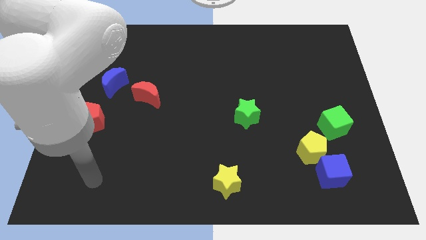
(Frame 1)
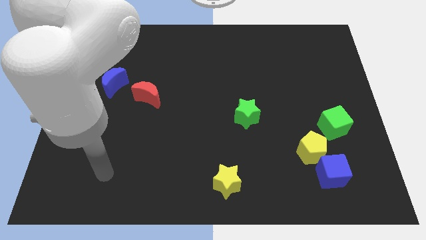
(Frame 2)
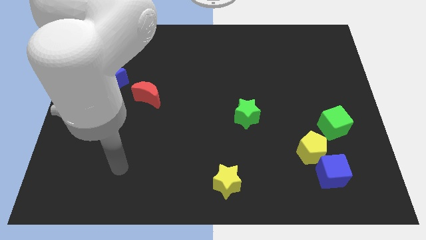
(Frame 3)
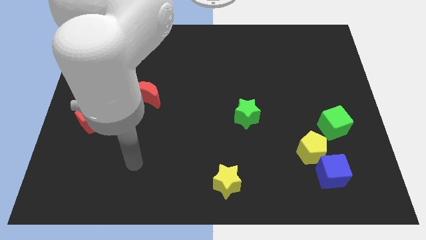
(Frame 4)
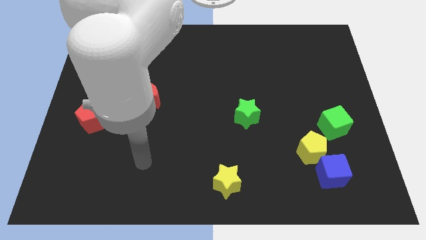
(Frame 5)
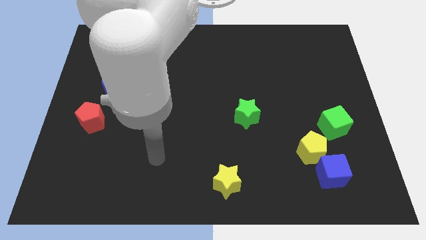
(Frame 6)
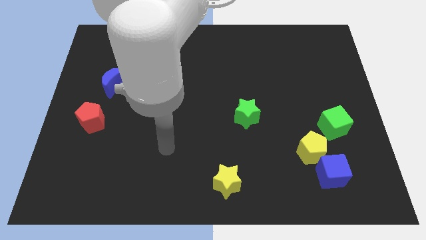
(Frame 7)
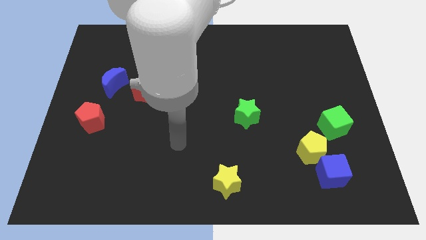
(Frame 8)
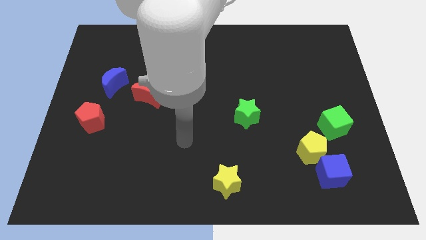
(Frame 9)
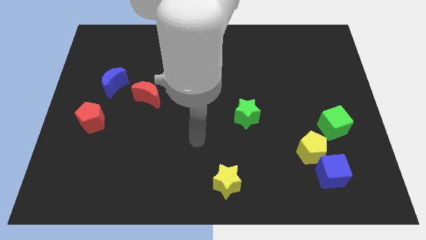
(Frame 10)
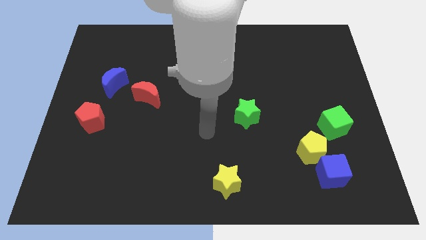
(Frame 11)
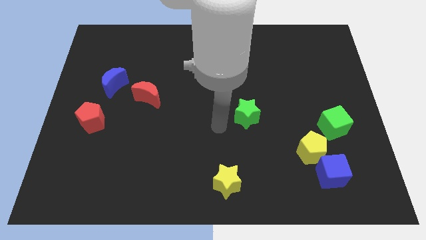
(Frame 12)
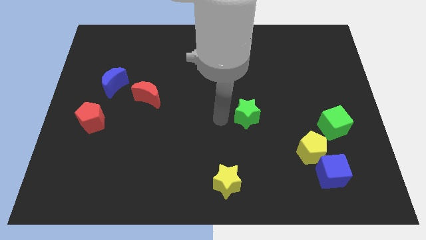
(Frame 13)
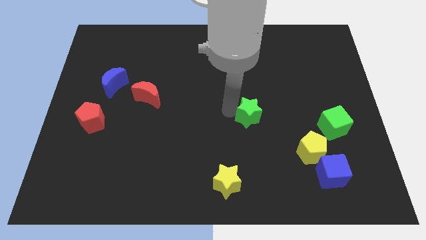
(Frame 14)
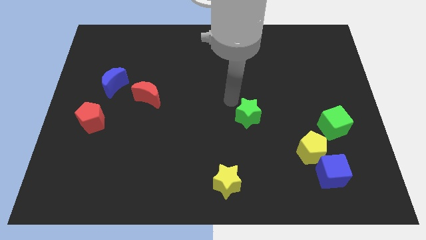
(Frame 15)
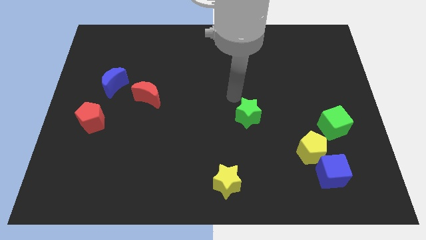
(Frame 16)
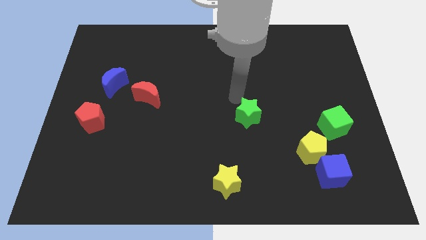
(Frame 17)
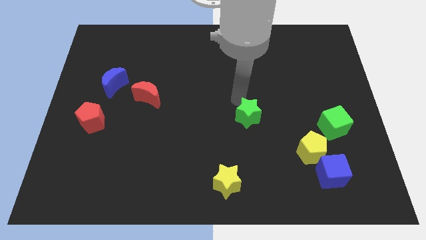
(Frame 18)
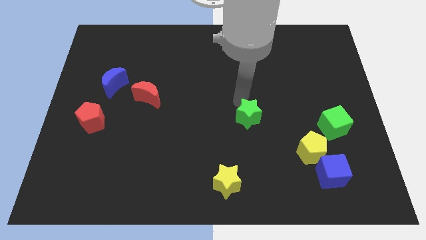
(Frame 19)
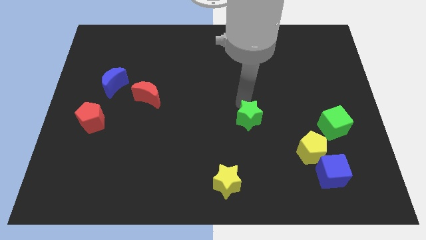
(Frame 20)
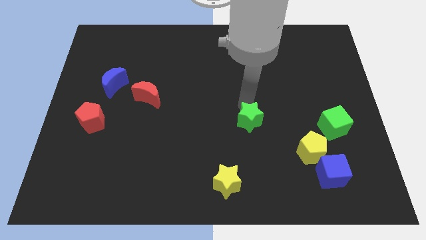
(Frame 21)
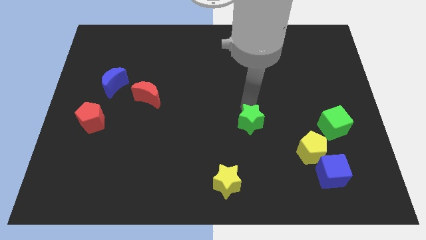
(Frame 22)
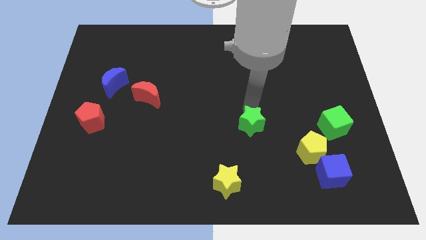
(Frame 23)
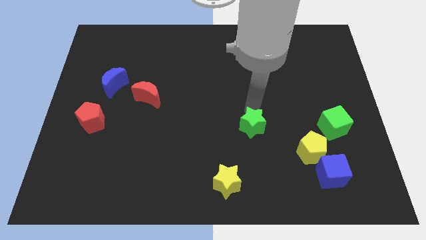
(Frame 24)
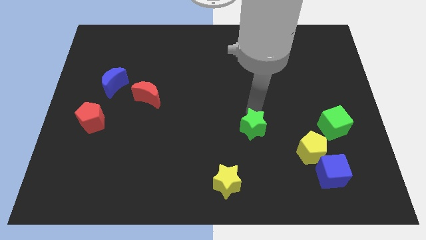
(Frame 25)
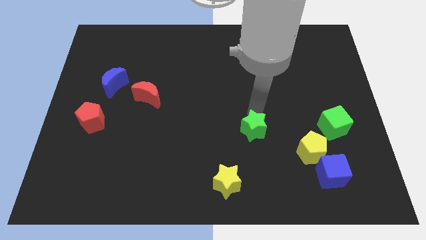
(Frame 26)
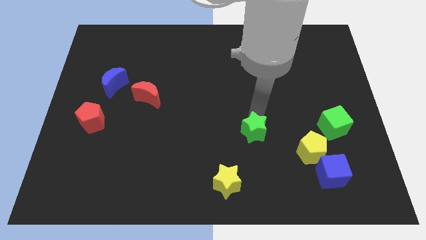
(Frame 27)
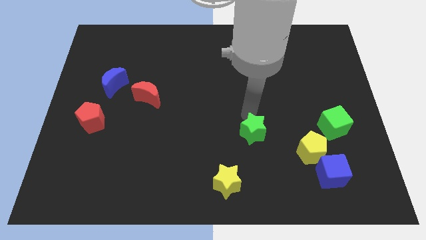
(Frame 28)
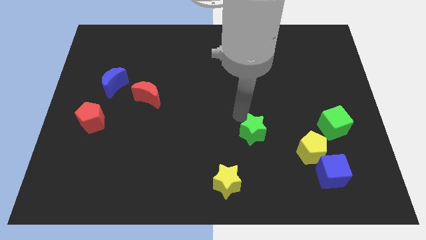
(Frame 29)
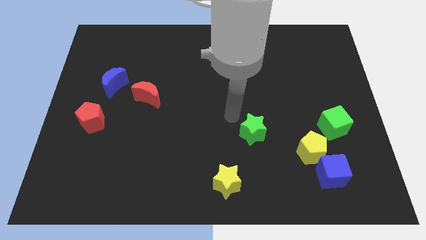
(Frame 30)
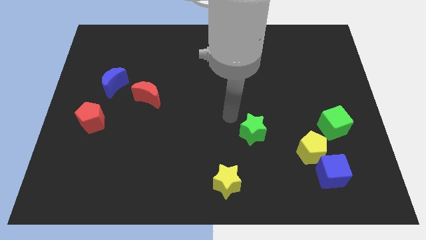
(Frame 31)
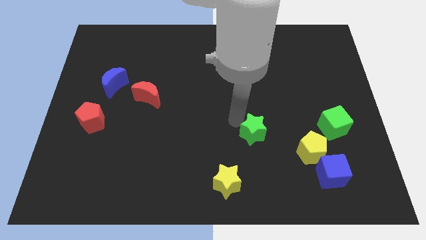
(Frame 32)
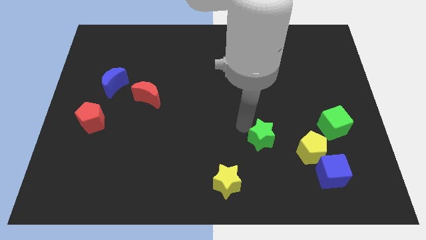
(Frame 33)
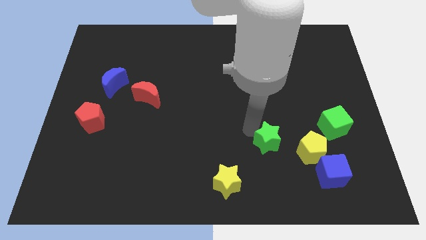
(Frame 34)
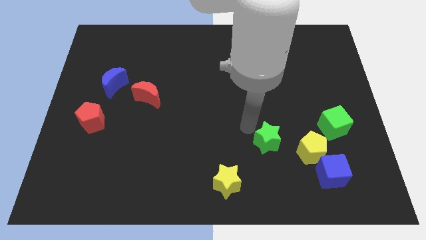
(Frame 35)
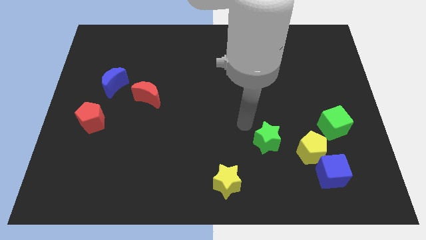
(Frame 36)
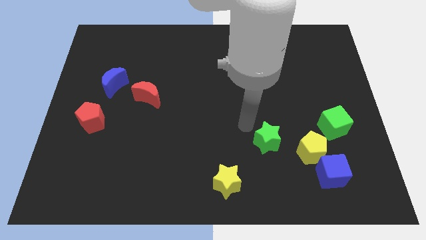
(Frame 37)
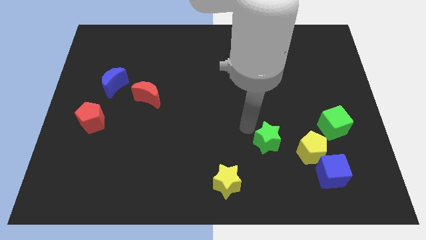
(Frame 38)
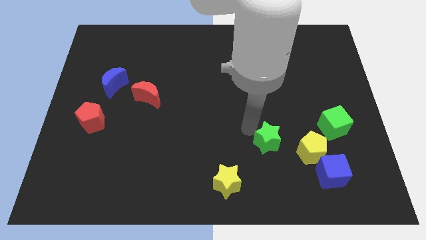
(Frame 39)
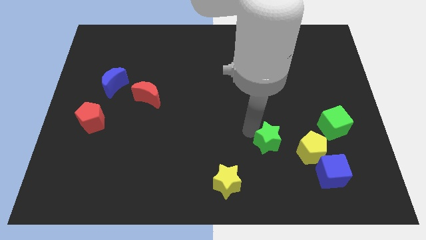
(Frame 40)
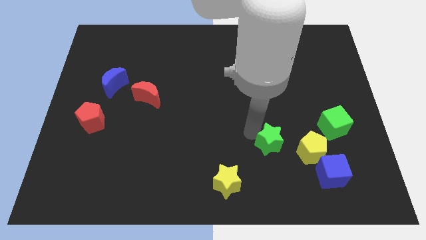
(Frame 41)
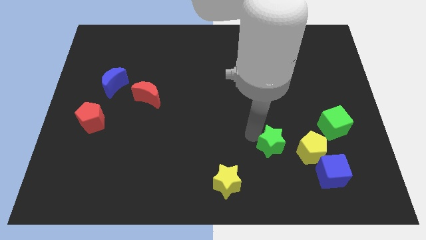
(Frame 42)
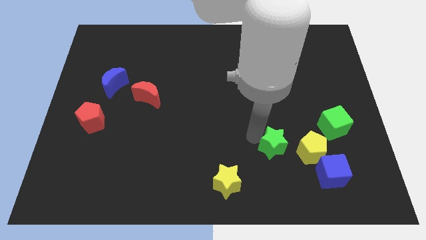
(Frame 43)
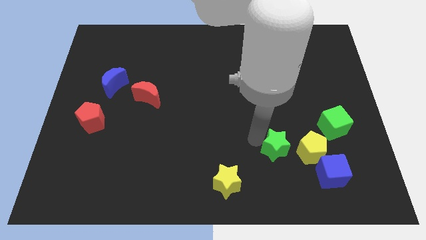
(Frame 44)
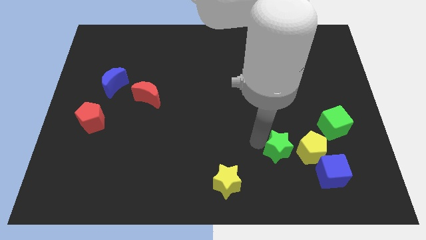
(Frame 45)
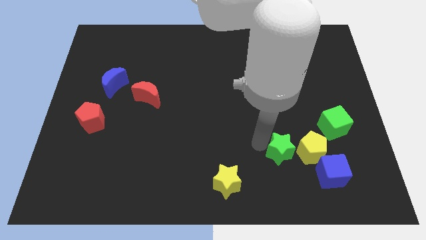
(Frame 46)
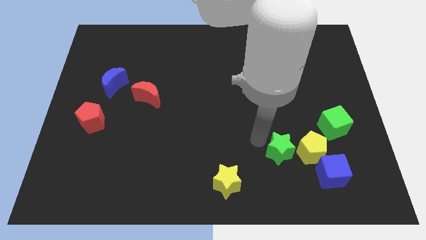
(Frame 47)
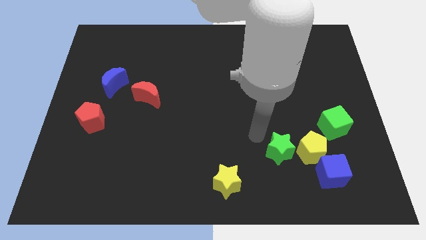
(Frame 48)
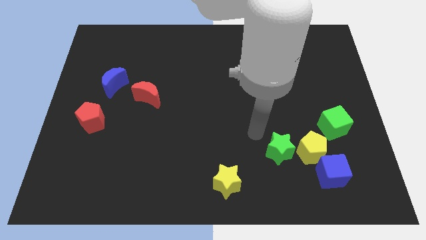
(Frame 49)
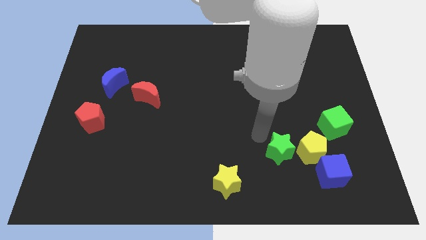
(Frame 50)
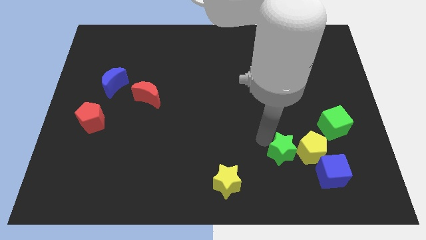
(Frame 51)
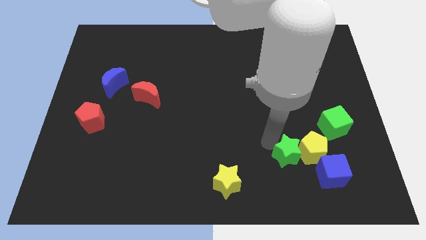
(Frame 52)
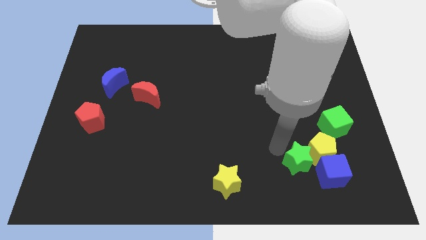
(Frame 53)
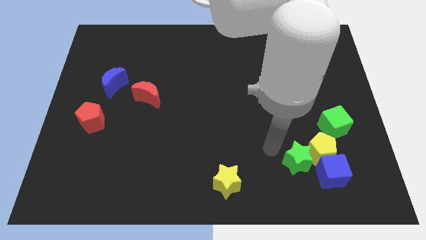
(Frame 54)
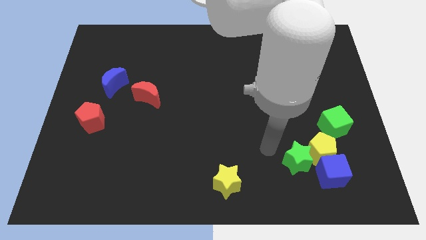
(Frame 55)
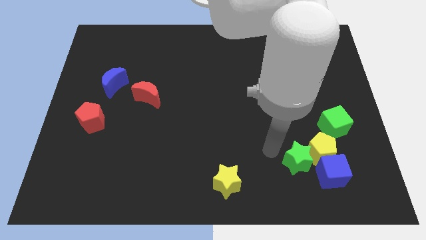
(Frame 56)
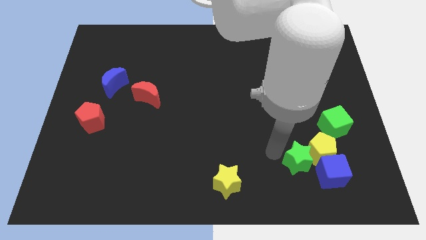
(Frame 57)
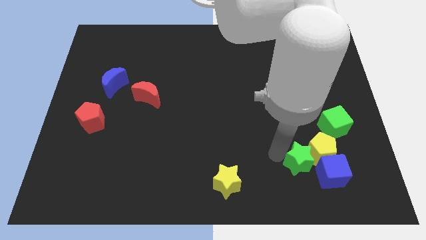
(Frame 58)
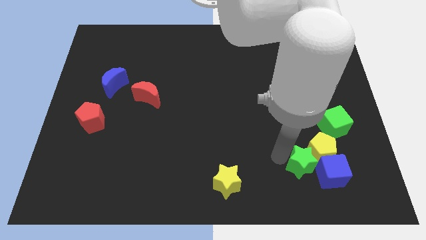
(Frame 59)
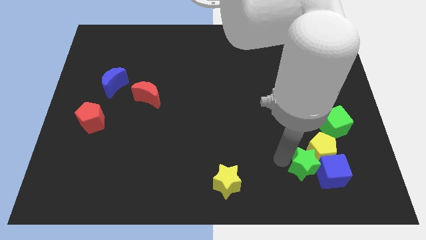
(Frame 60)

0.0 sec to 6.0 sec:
move the green star close to the blue cube

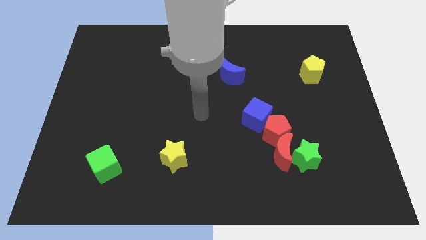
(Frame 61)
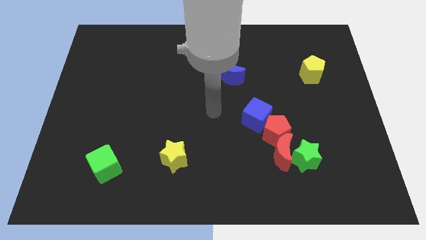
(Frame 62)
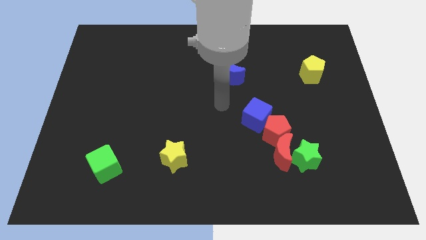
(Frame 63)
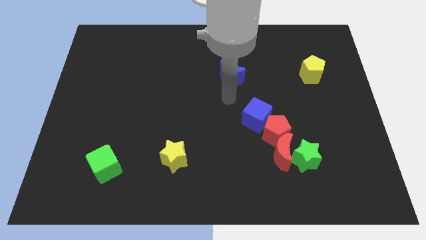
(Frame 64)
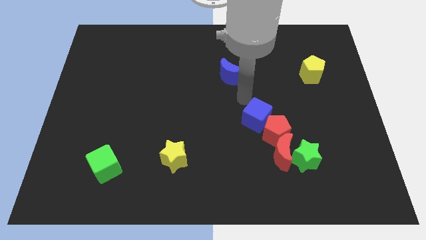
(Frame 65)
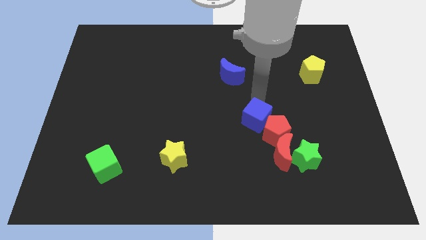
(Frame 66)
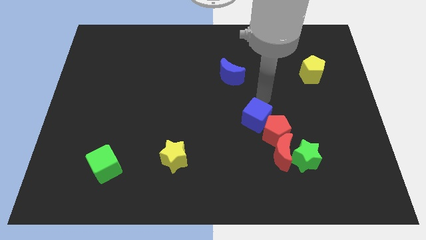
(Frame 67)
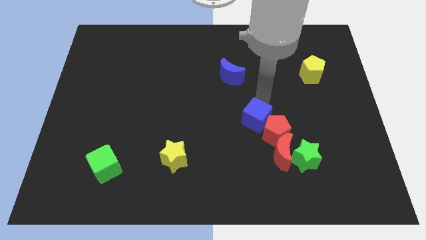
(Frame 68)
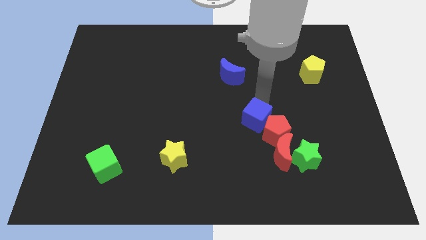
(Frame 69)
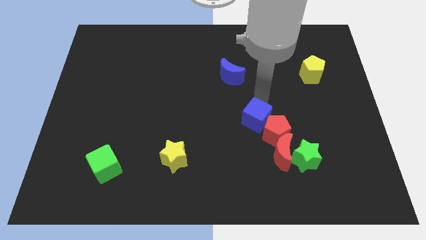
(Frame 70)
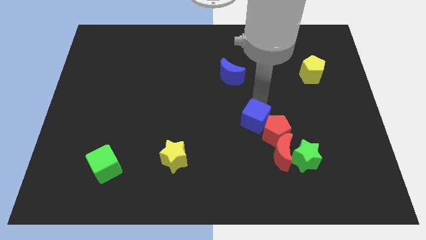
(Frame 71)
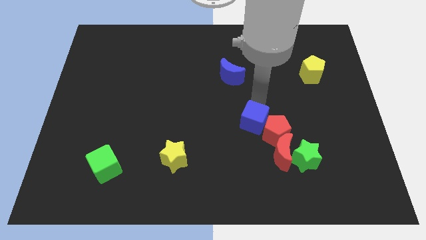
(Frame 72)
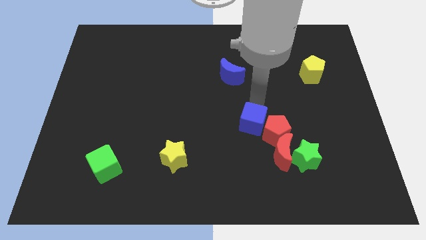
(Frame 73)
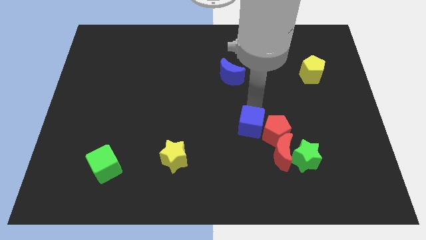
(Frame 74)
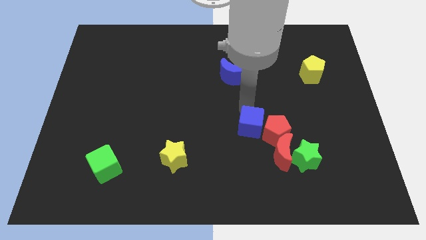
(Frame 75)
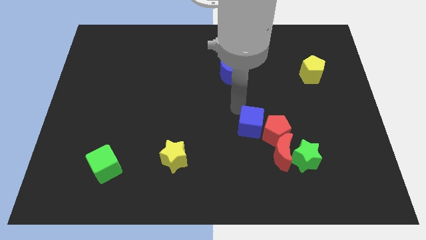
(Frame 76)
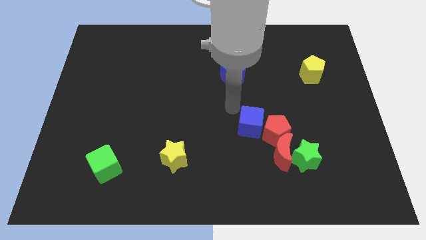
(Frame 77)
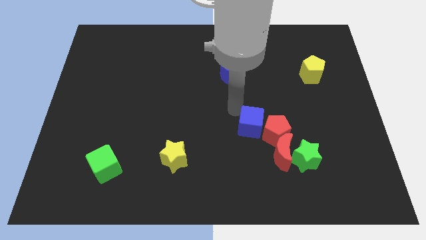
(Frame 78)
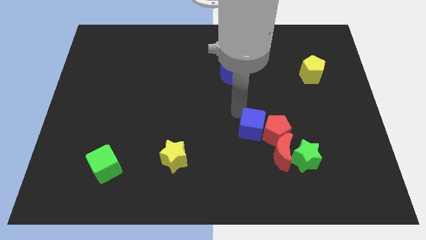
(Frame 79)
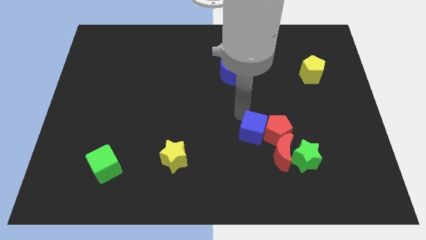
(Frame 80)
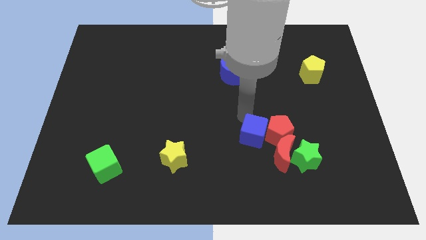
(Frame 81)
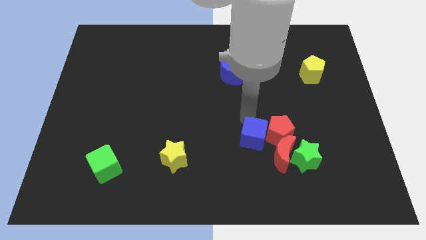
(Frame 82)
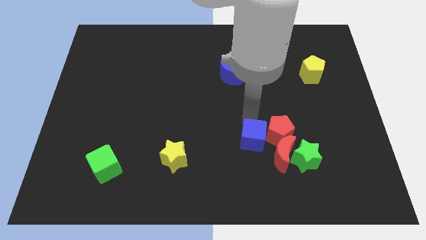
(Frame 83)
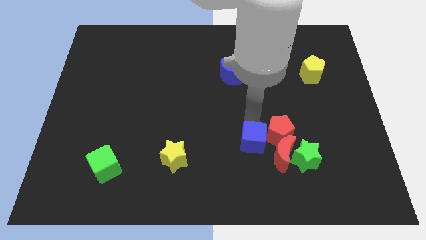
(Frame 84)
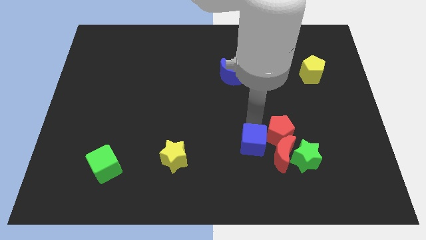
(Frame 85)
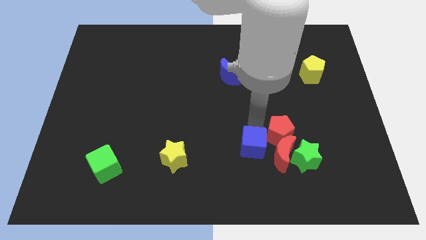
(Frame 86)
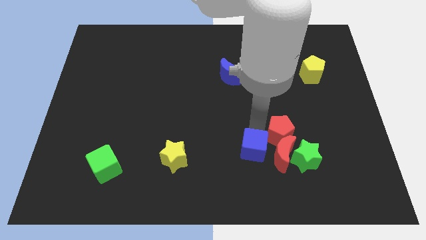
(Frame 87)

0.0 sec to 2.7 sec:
put the blue cube close to the red moon
